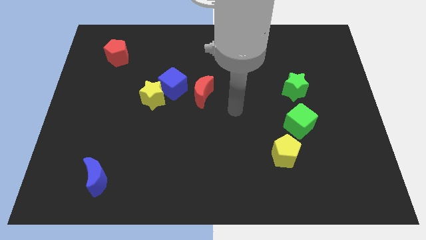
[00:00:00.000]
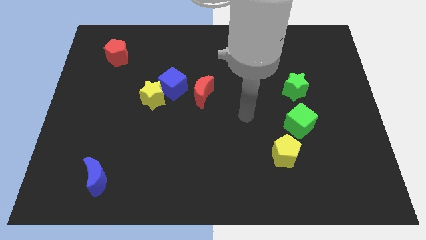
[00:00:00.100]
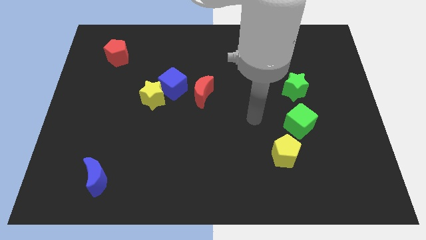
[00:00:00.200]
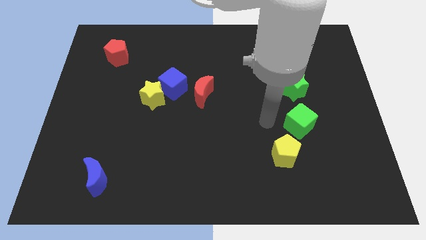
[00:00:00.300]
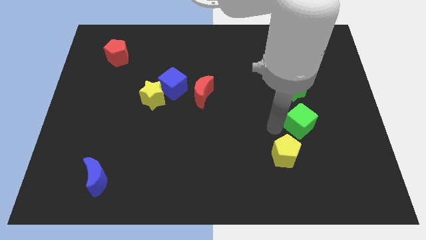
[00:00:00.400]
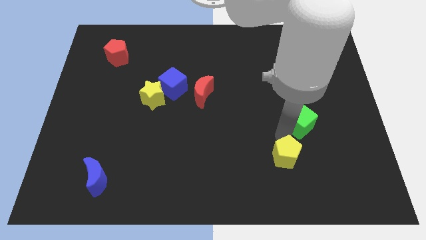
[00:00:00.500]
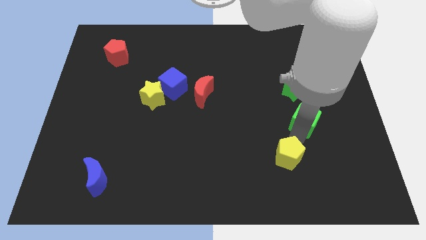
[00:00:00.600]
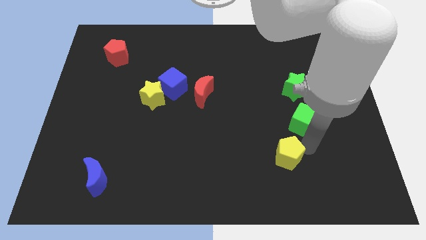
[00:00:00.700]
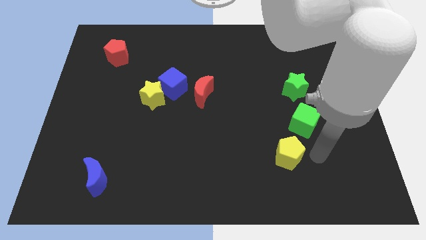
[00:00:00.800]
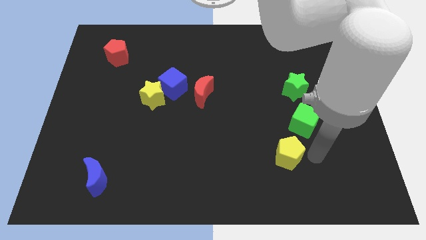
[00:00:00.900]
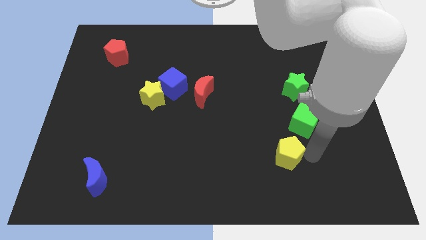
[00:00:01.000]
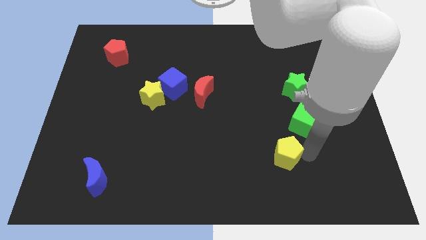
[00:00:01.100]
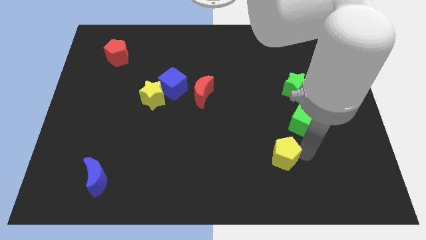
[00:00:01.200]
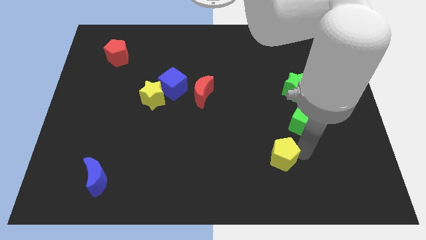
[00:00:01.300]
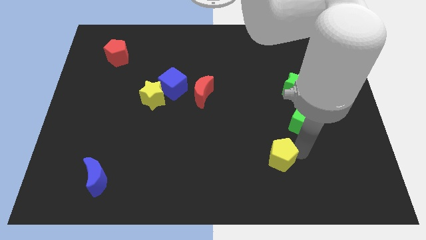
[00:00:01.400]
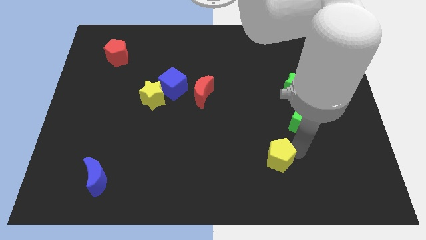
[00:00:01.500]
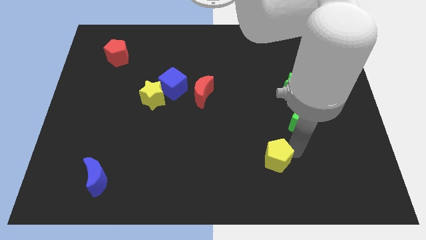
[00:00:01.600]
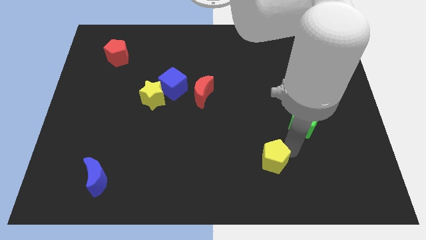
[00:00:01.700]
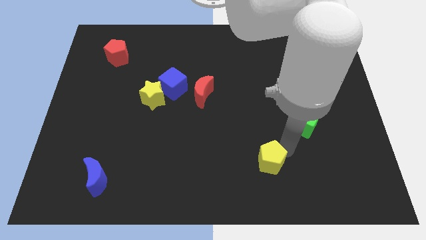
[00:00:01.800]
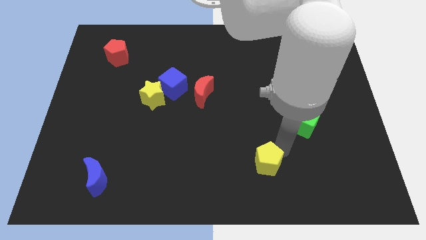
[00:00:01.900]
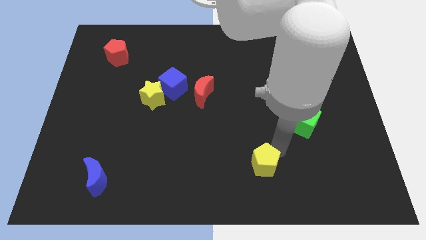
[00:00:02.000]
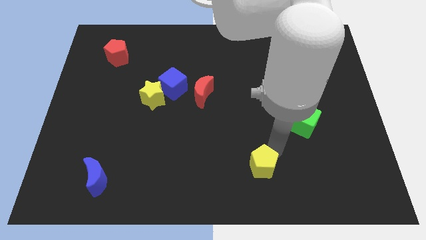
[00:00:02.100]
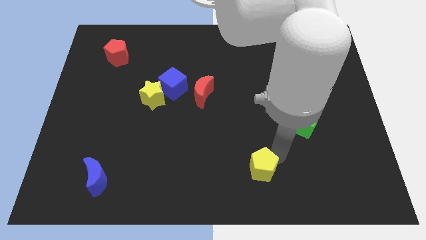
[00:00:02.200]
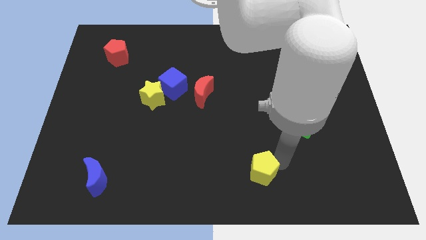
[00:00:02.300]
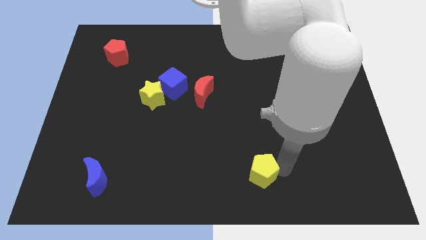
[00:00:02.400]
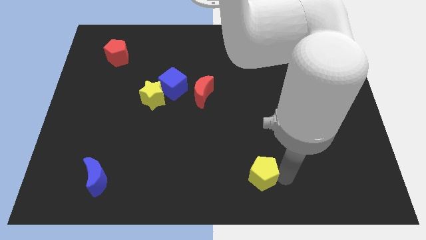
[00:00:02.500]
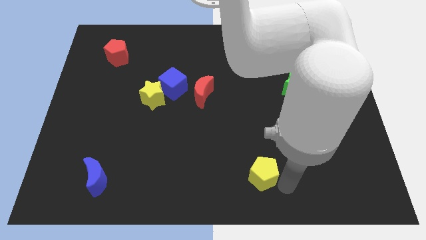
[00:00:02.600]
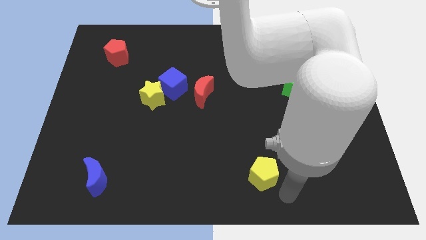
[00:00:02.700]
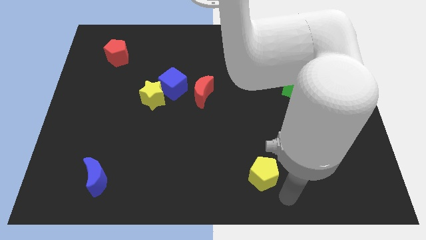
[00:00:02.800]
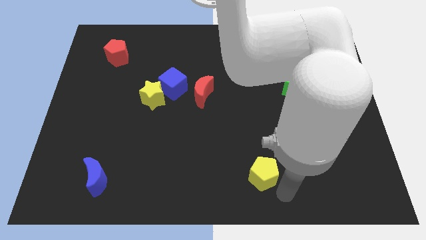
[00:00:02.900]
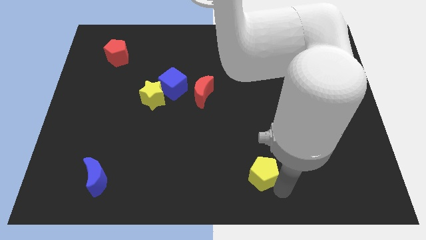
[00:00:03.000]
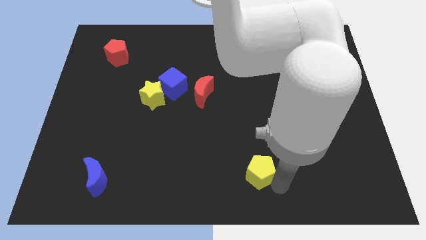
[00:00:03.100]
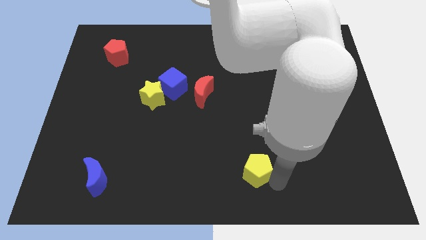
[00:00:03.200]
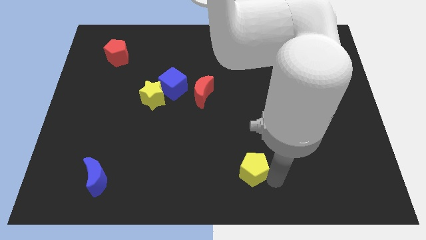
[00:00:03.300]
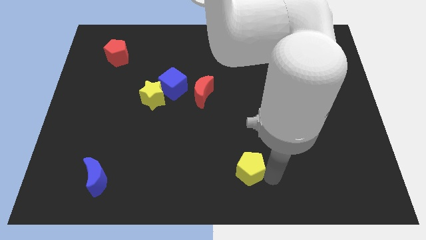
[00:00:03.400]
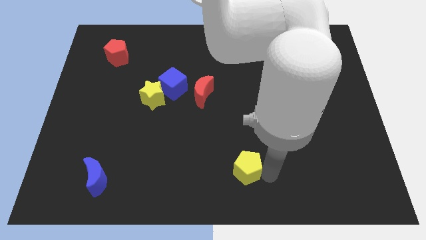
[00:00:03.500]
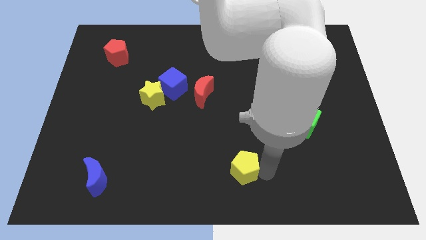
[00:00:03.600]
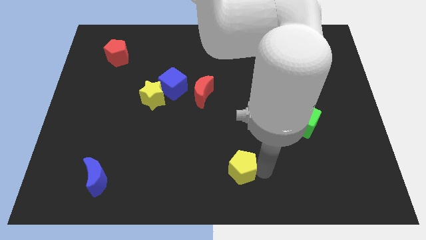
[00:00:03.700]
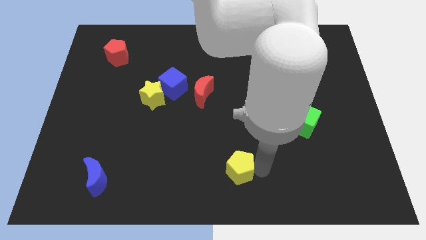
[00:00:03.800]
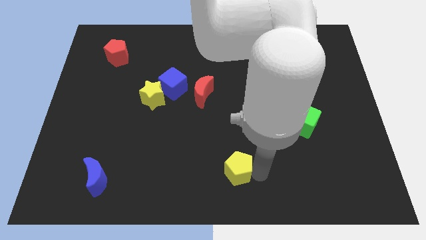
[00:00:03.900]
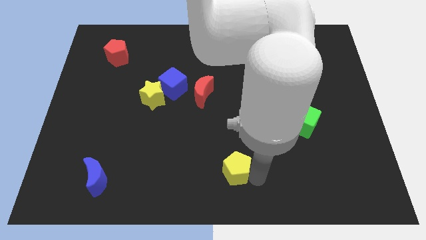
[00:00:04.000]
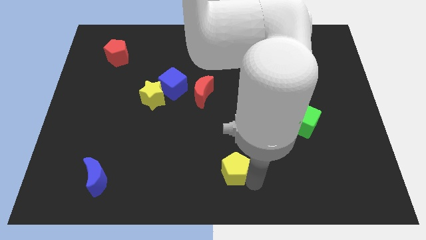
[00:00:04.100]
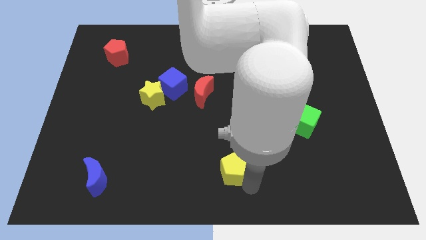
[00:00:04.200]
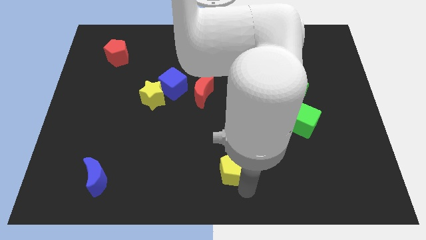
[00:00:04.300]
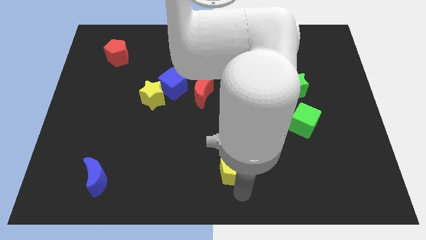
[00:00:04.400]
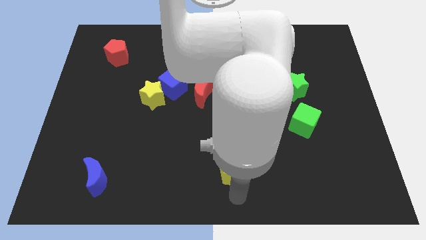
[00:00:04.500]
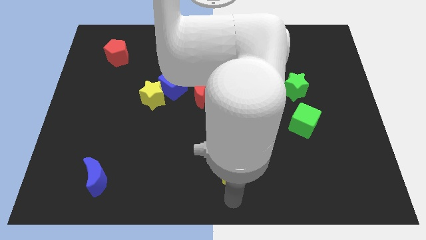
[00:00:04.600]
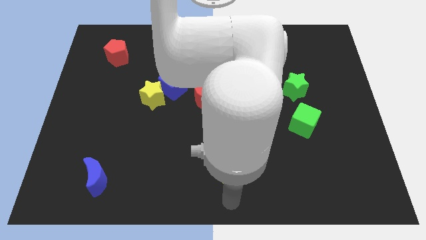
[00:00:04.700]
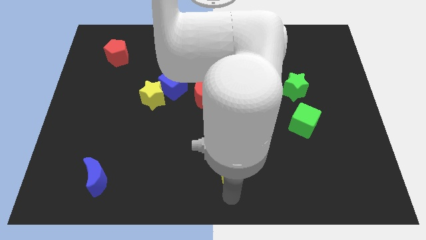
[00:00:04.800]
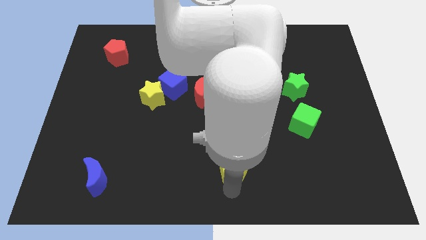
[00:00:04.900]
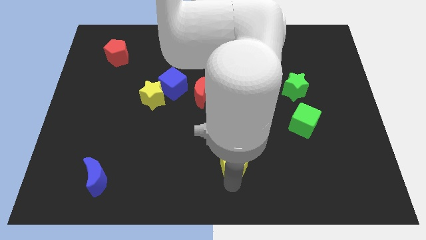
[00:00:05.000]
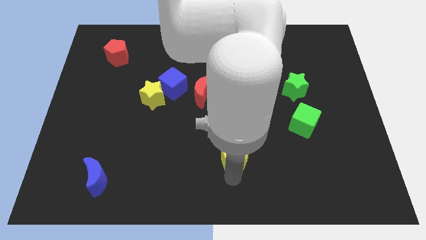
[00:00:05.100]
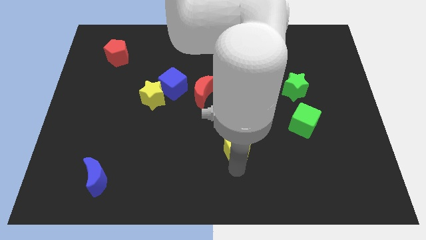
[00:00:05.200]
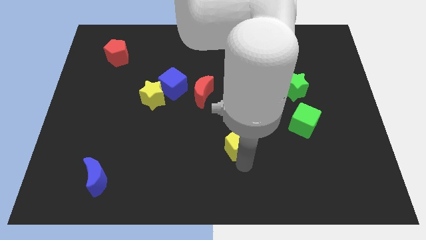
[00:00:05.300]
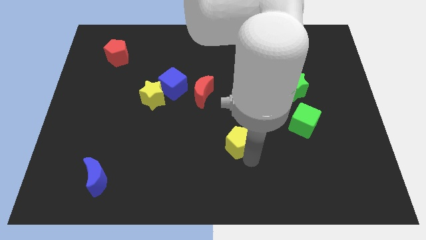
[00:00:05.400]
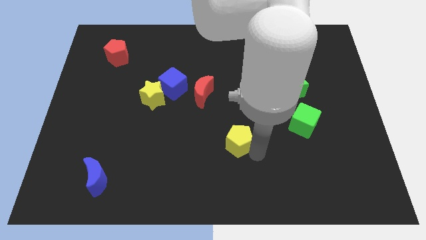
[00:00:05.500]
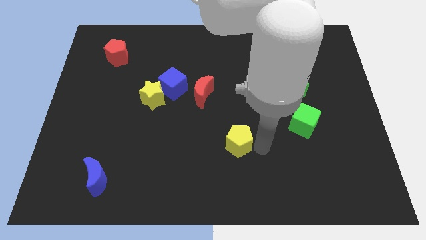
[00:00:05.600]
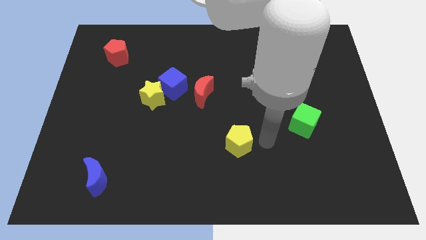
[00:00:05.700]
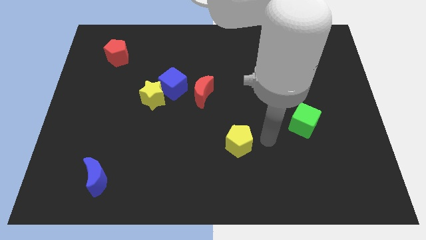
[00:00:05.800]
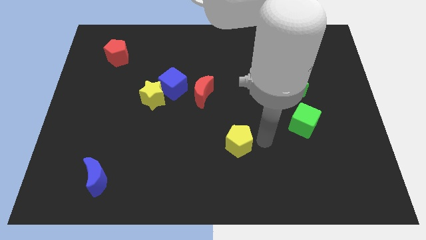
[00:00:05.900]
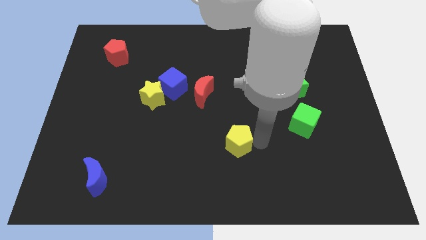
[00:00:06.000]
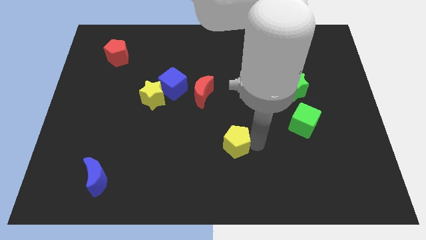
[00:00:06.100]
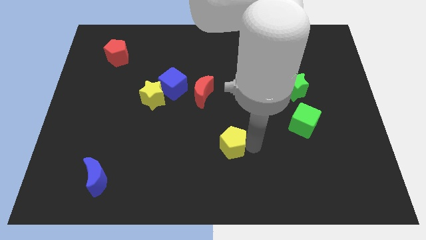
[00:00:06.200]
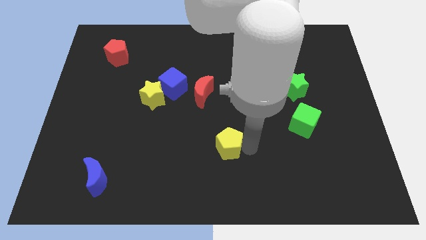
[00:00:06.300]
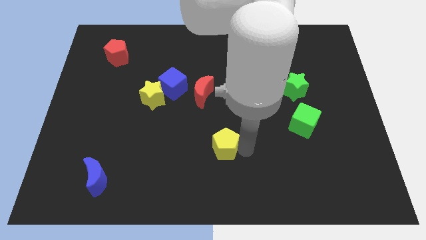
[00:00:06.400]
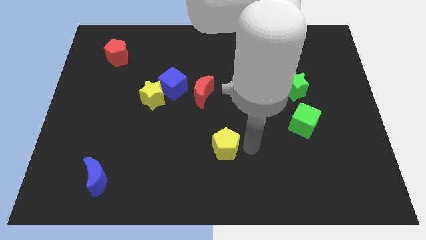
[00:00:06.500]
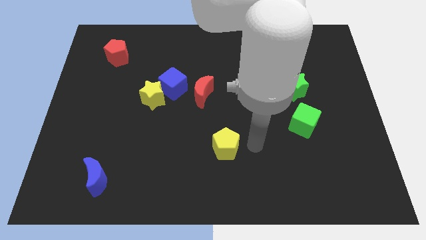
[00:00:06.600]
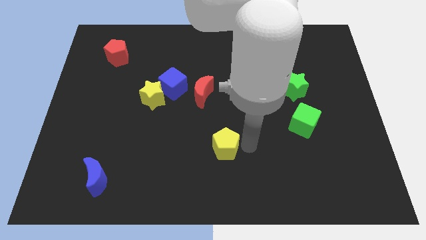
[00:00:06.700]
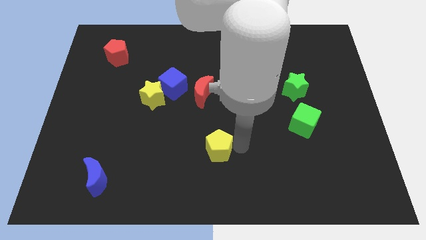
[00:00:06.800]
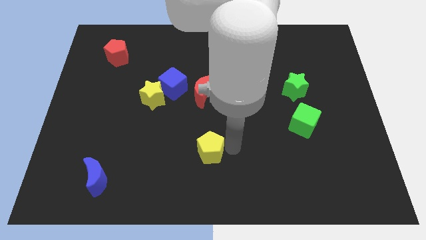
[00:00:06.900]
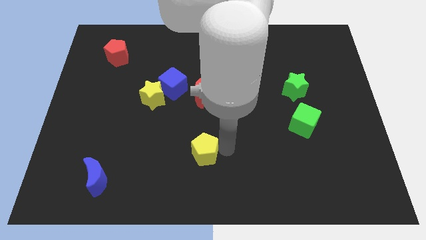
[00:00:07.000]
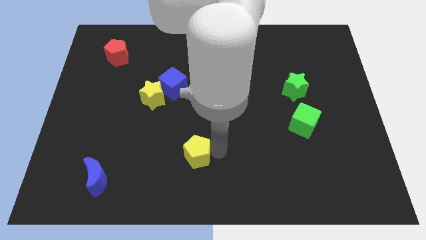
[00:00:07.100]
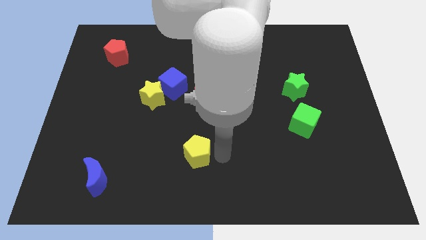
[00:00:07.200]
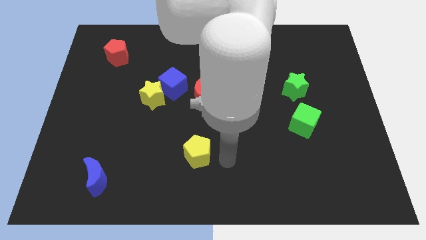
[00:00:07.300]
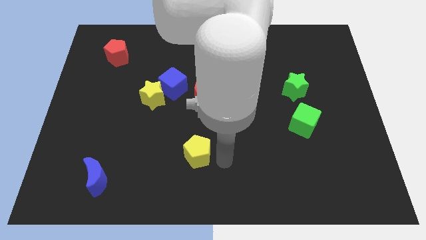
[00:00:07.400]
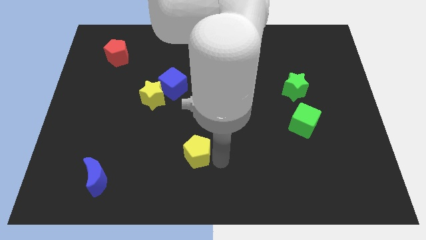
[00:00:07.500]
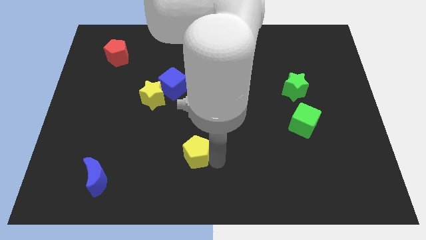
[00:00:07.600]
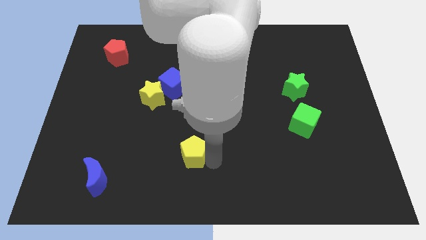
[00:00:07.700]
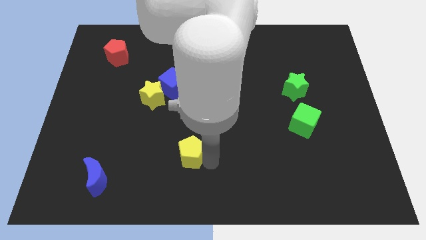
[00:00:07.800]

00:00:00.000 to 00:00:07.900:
move the yellow pentagon to the left

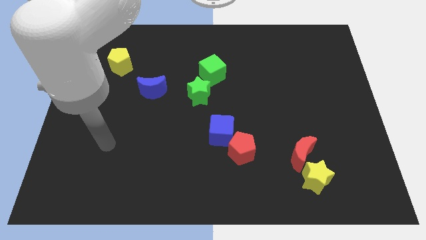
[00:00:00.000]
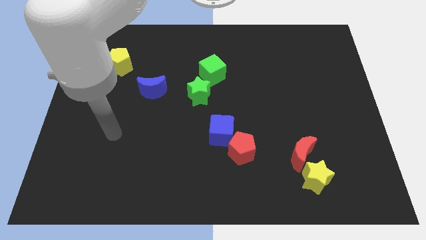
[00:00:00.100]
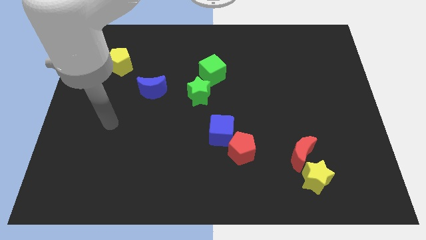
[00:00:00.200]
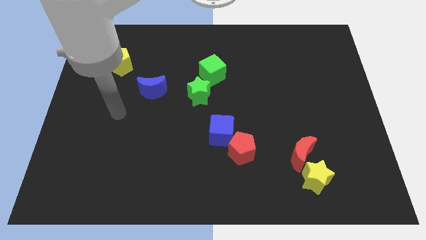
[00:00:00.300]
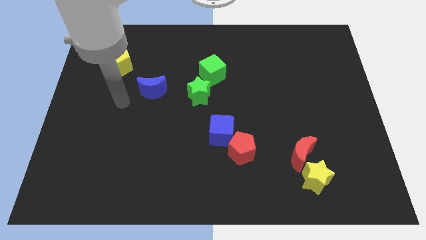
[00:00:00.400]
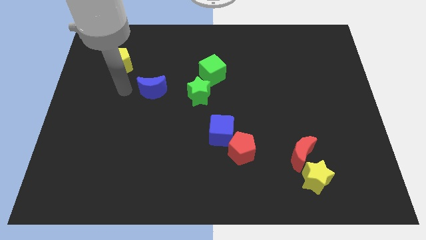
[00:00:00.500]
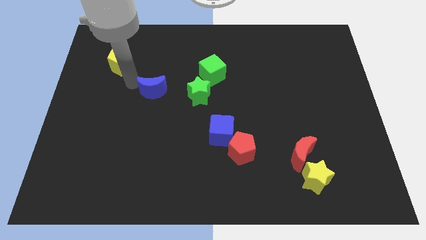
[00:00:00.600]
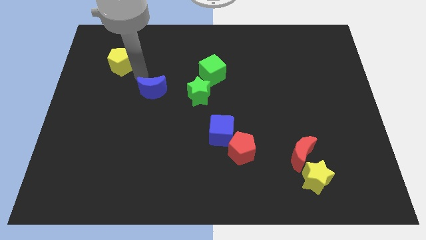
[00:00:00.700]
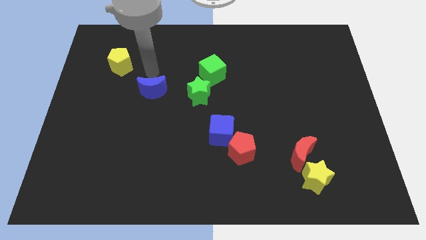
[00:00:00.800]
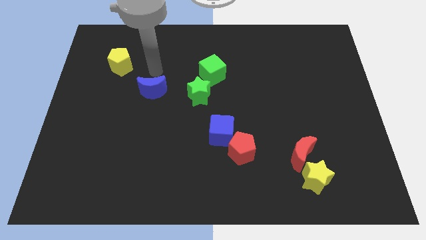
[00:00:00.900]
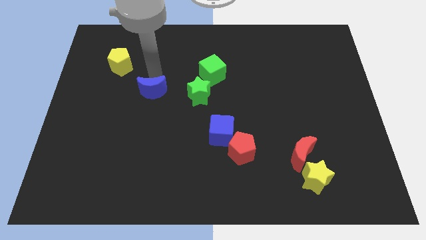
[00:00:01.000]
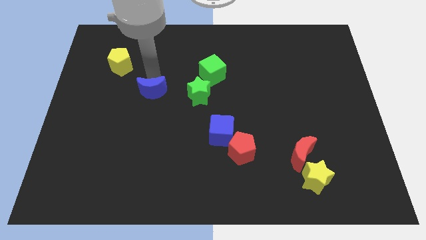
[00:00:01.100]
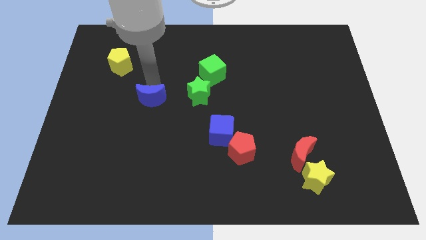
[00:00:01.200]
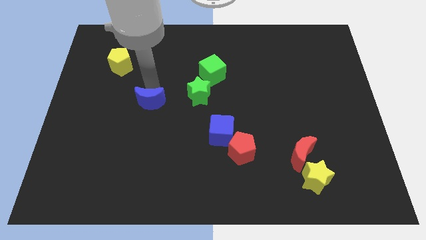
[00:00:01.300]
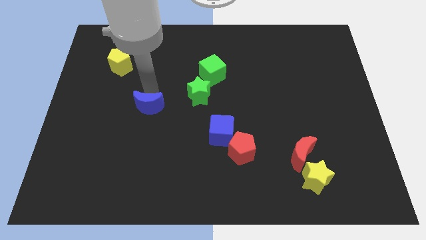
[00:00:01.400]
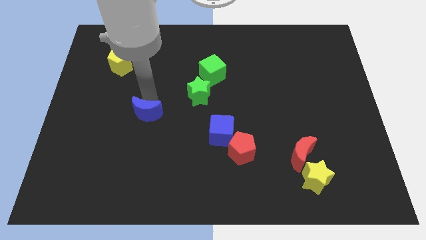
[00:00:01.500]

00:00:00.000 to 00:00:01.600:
slightly push the blue moon down
